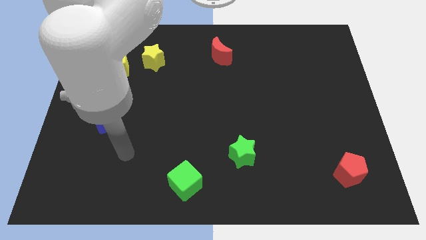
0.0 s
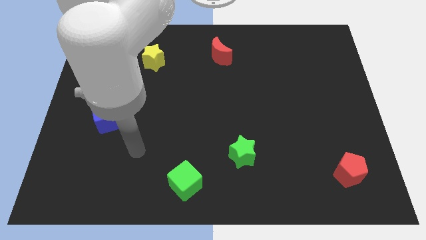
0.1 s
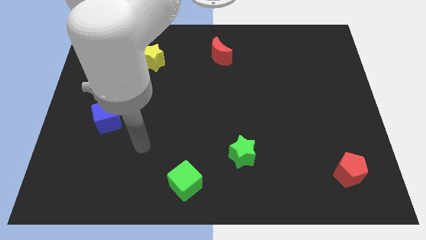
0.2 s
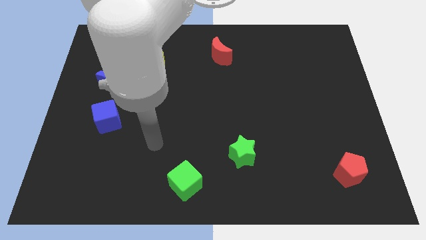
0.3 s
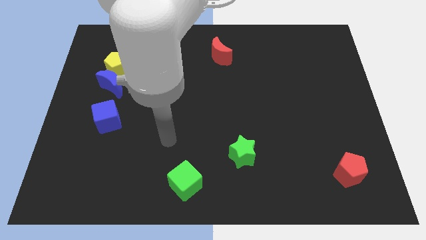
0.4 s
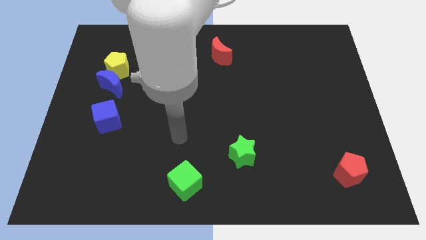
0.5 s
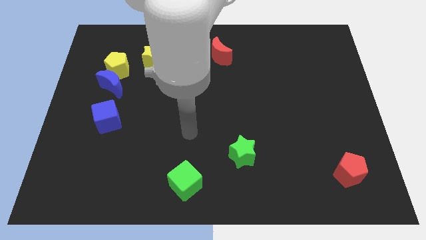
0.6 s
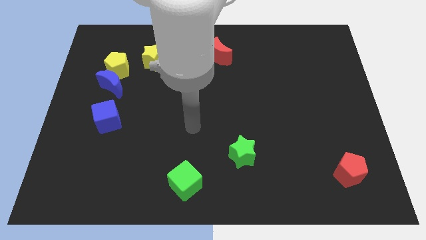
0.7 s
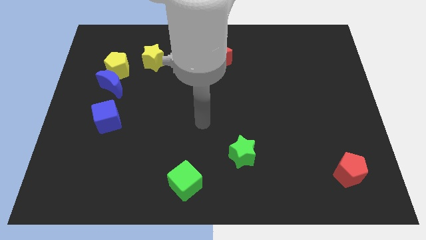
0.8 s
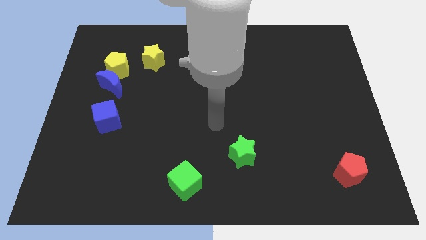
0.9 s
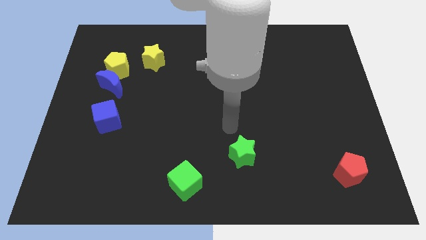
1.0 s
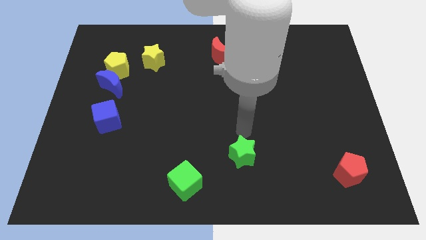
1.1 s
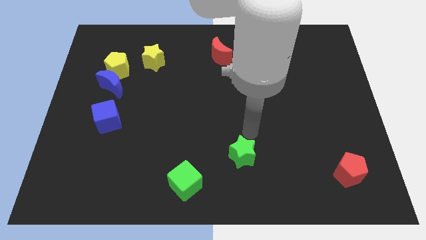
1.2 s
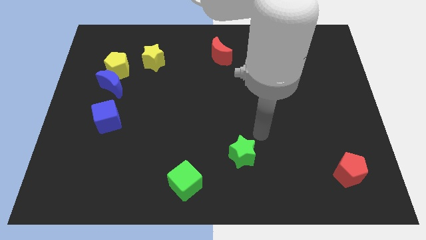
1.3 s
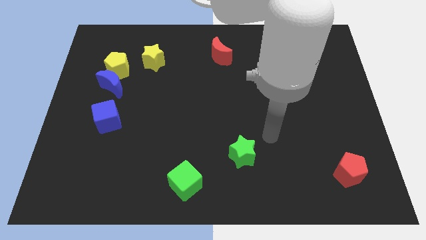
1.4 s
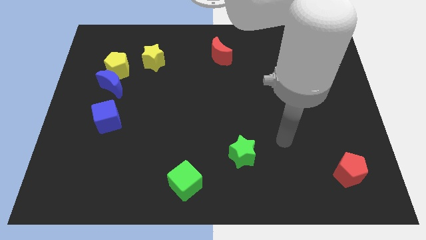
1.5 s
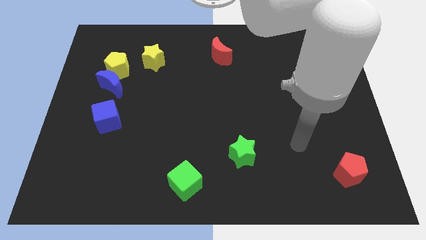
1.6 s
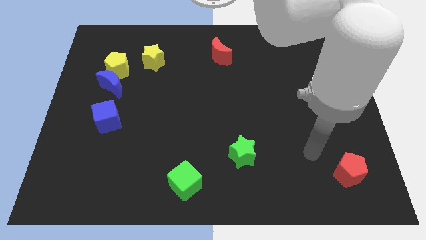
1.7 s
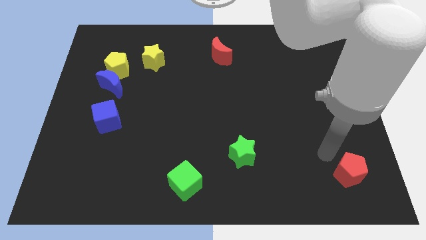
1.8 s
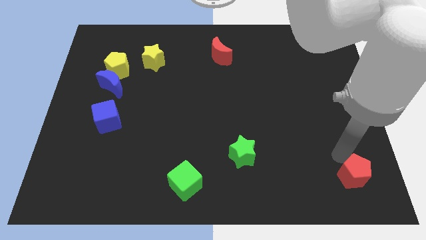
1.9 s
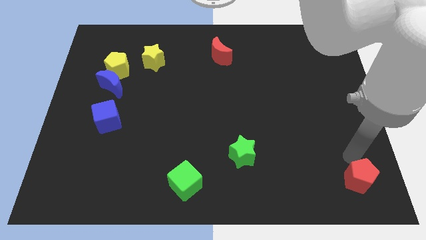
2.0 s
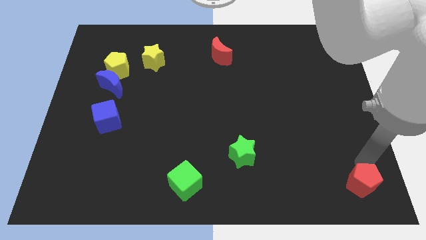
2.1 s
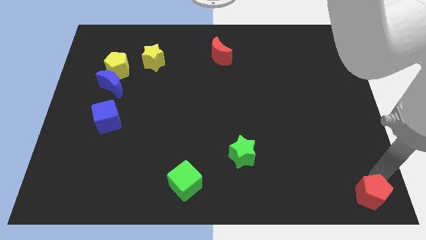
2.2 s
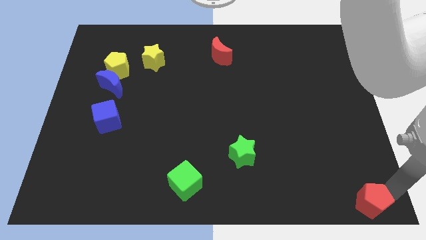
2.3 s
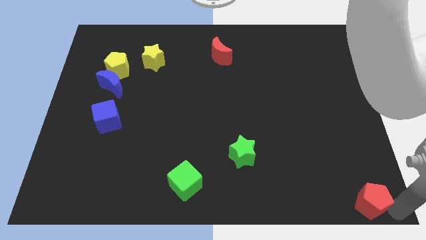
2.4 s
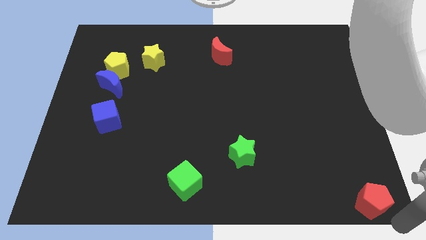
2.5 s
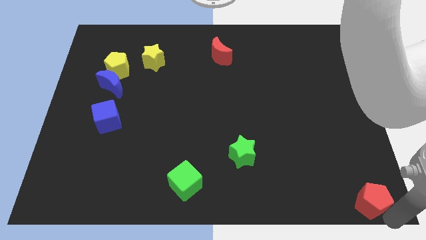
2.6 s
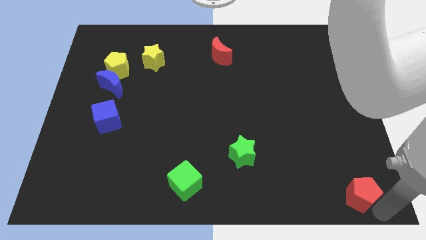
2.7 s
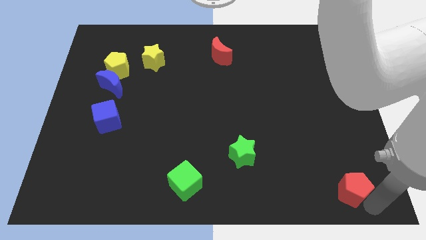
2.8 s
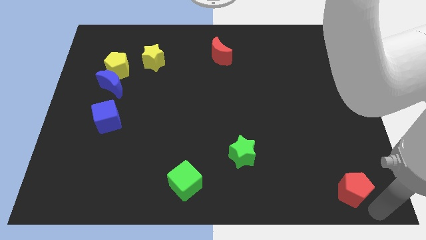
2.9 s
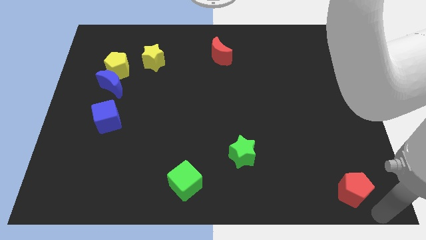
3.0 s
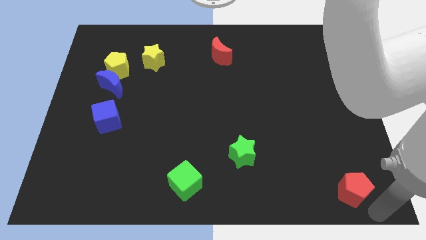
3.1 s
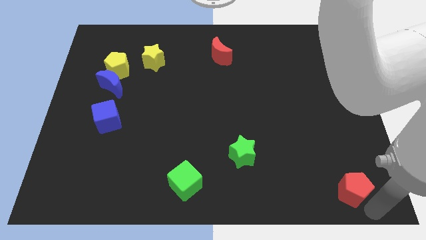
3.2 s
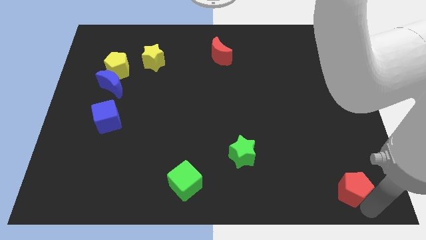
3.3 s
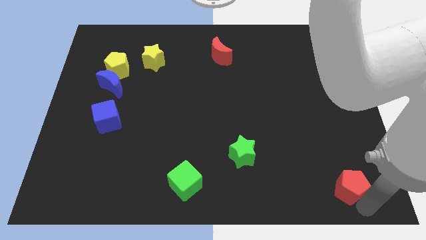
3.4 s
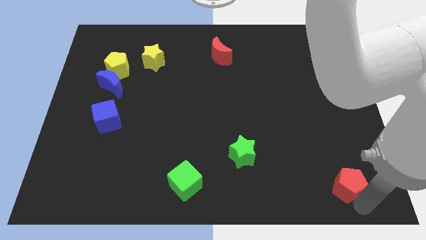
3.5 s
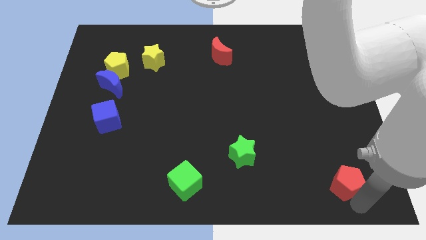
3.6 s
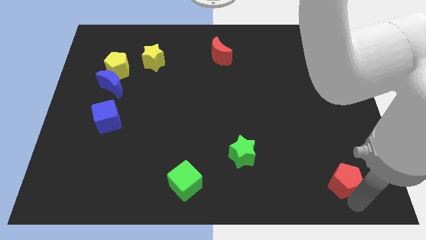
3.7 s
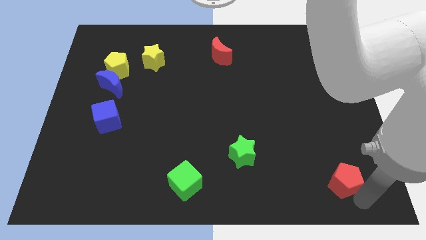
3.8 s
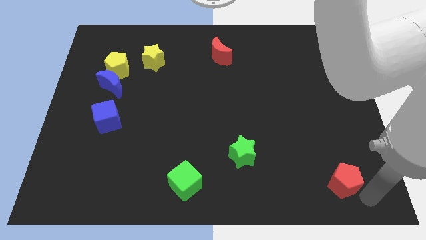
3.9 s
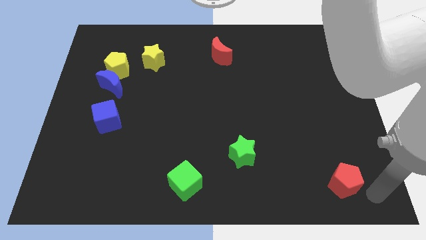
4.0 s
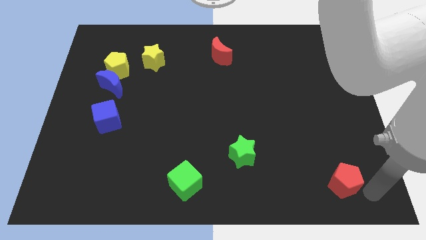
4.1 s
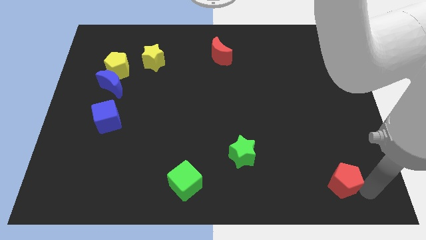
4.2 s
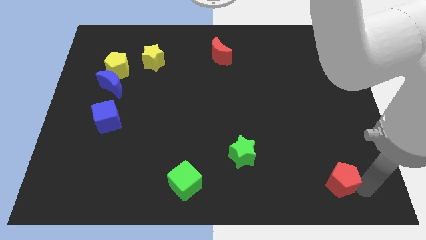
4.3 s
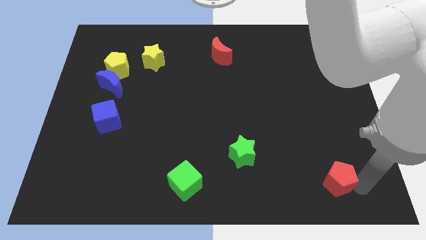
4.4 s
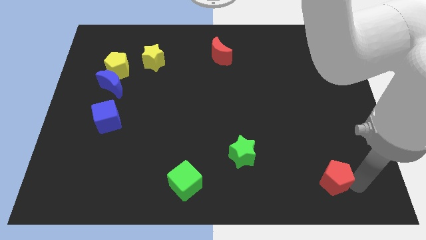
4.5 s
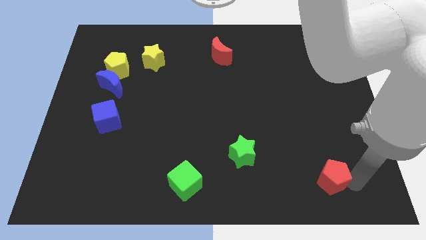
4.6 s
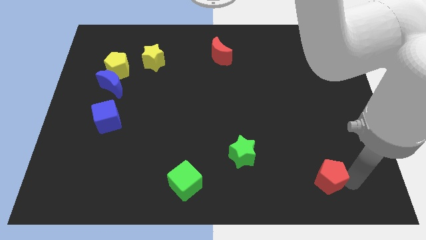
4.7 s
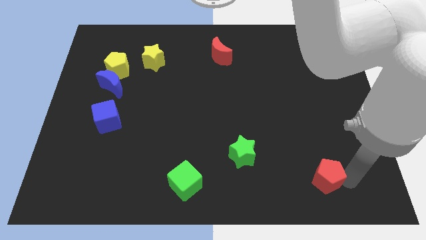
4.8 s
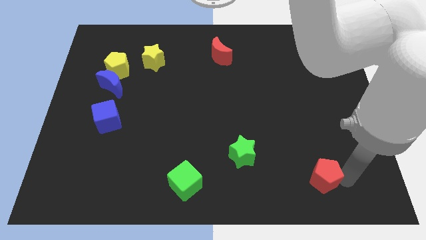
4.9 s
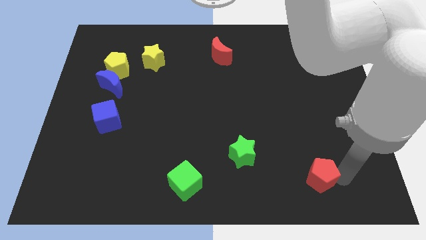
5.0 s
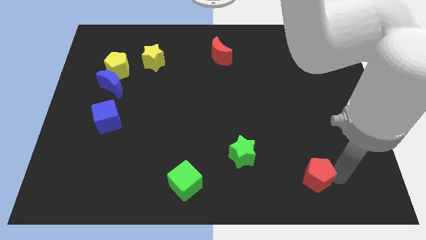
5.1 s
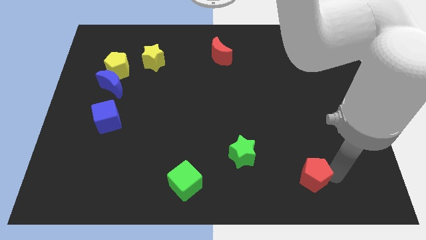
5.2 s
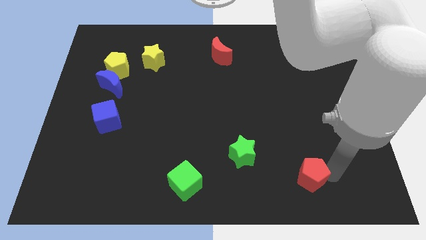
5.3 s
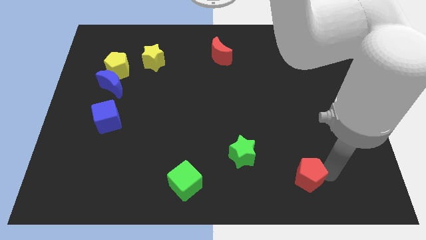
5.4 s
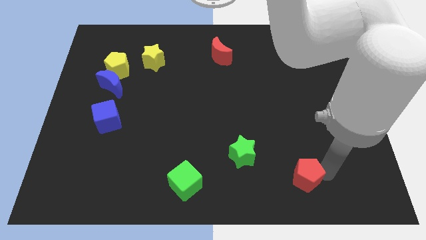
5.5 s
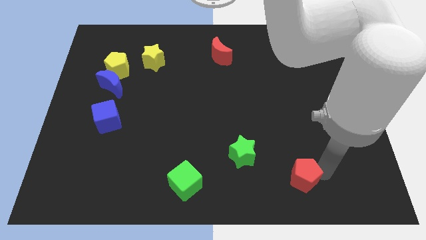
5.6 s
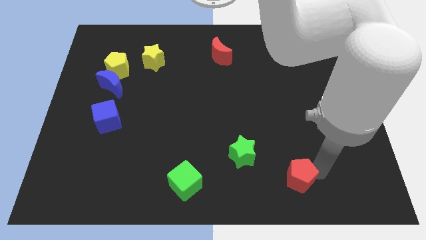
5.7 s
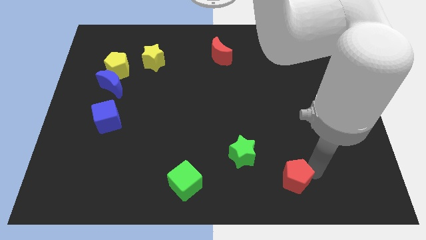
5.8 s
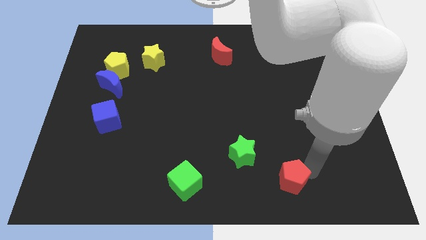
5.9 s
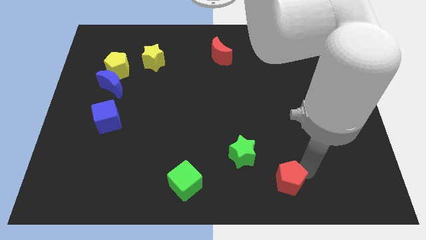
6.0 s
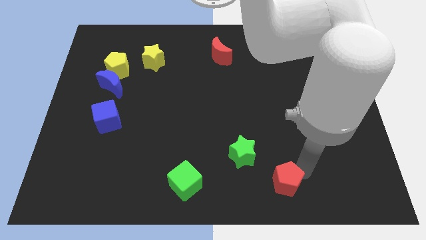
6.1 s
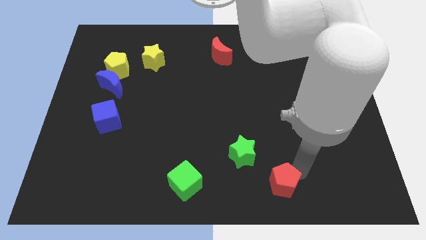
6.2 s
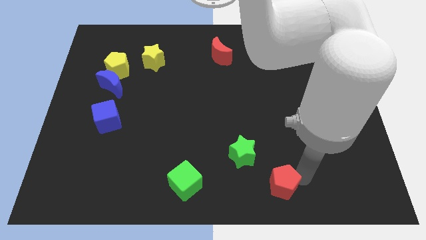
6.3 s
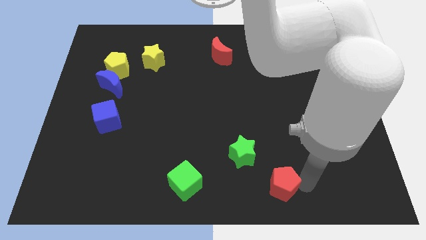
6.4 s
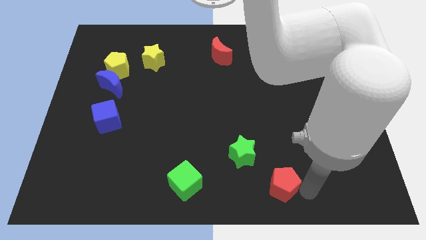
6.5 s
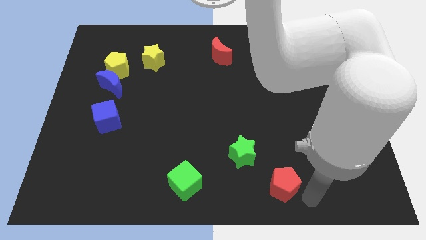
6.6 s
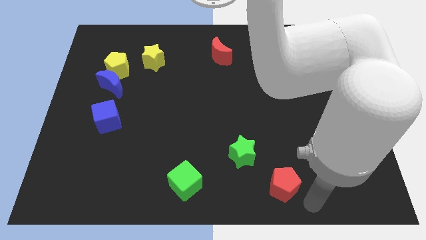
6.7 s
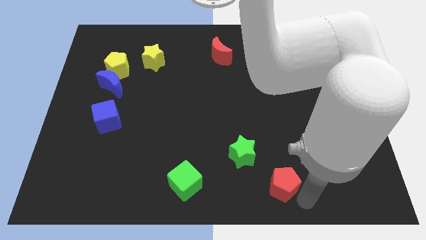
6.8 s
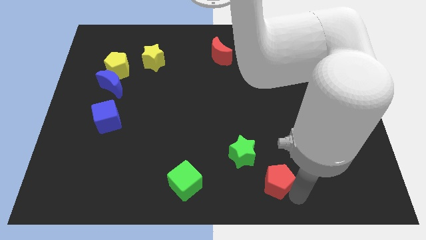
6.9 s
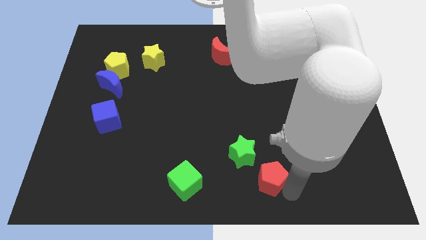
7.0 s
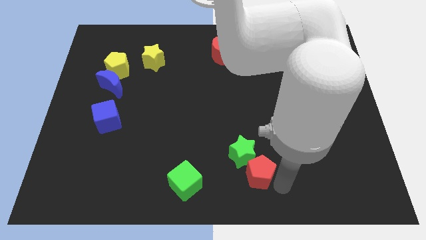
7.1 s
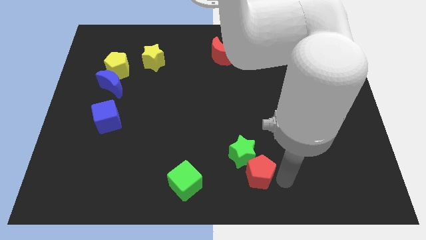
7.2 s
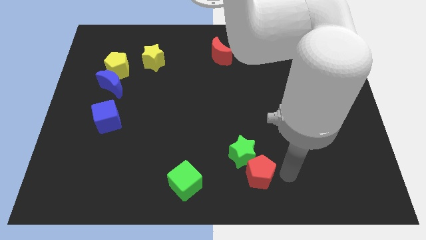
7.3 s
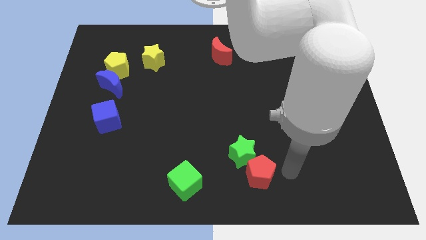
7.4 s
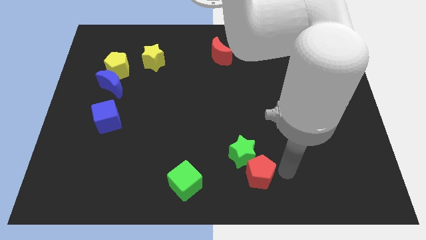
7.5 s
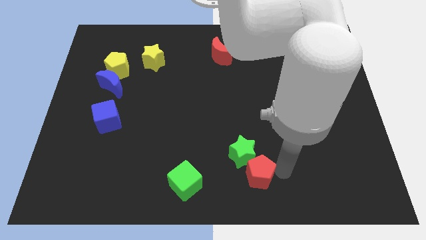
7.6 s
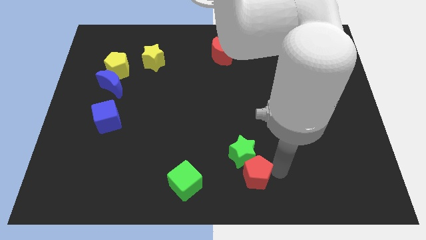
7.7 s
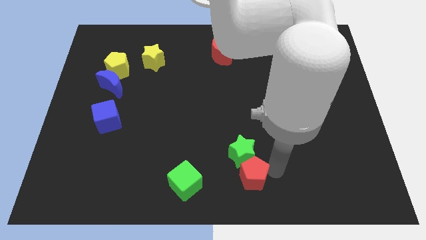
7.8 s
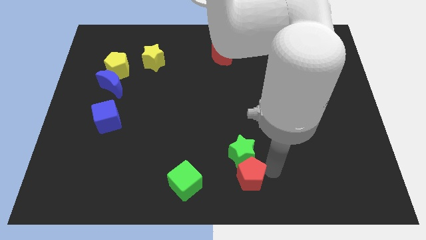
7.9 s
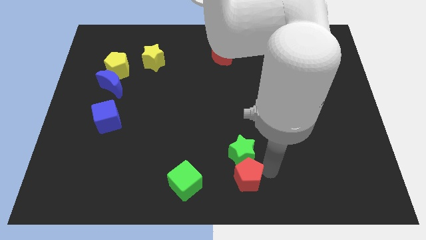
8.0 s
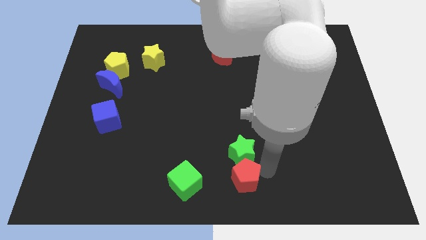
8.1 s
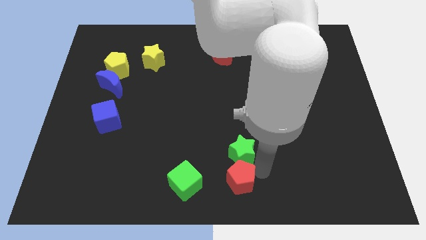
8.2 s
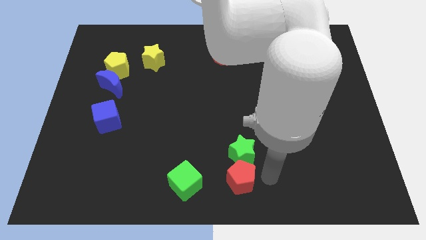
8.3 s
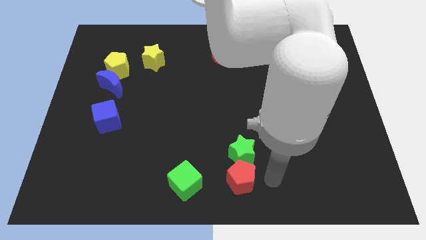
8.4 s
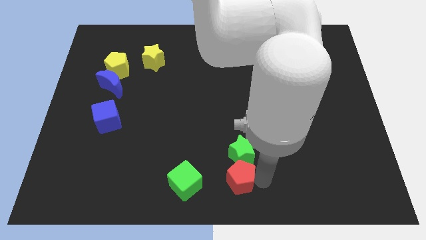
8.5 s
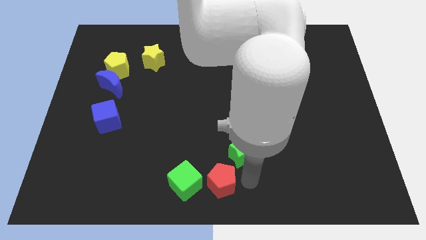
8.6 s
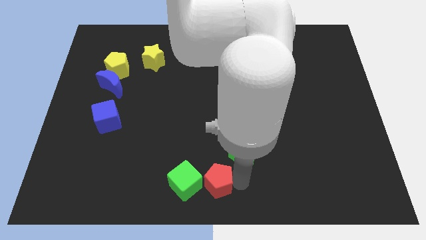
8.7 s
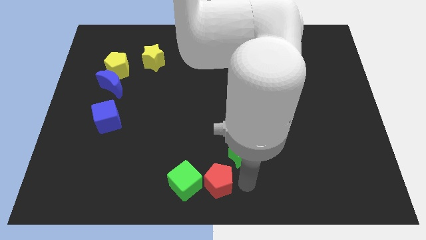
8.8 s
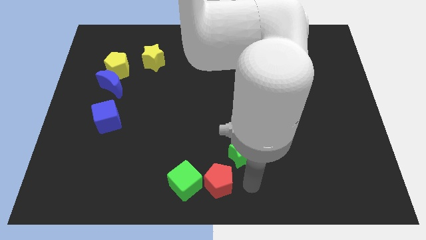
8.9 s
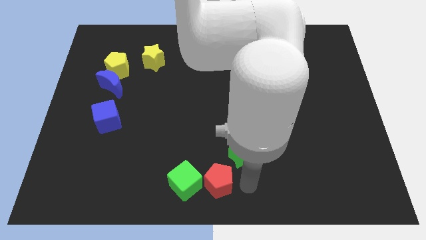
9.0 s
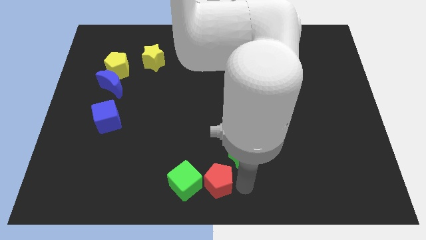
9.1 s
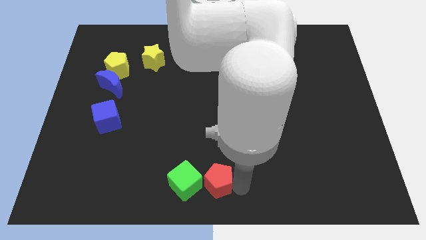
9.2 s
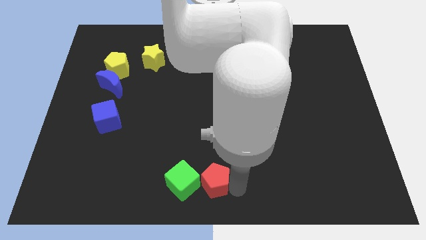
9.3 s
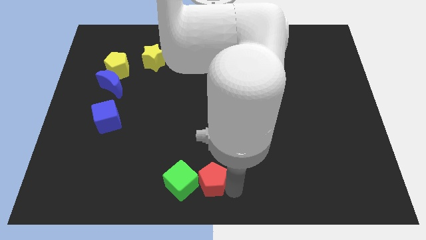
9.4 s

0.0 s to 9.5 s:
slide the red pentagon to the green cube
